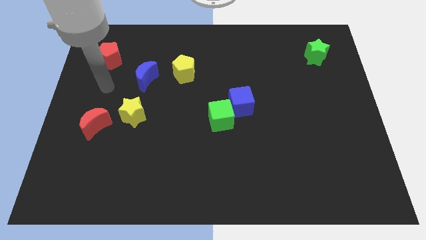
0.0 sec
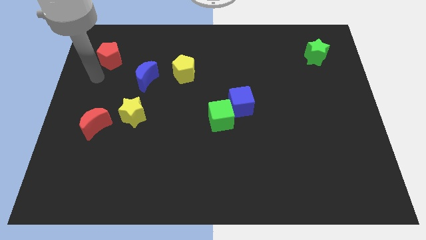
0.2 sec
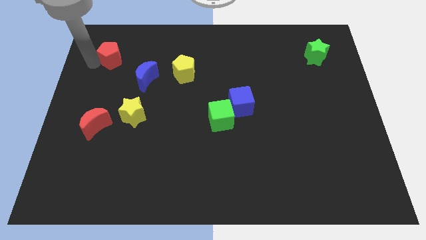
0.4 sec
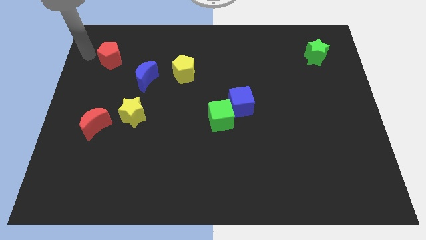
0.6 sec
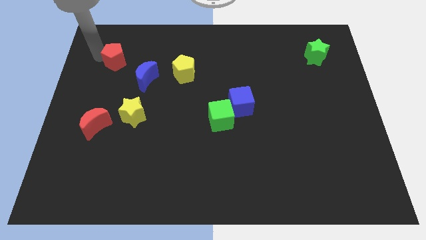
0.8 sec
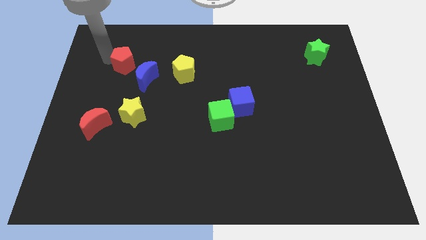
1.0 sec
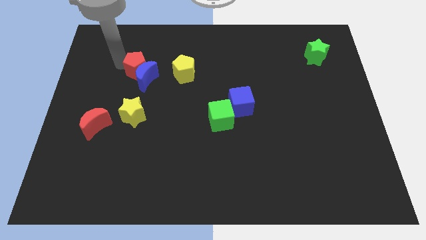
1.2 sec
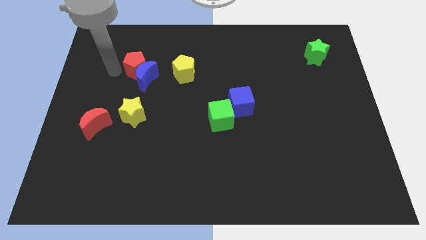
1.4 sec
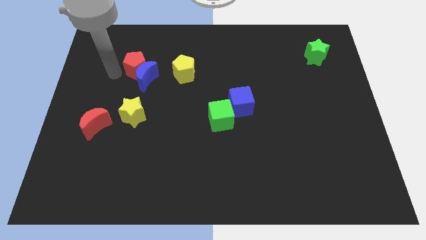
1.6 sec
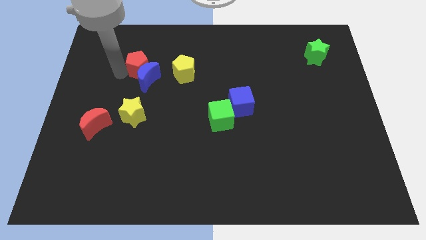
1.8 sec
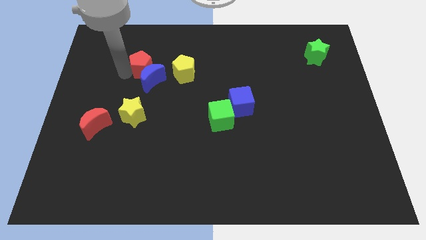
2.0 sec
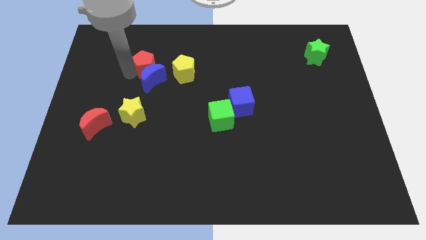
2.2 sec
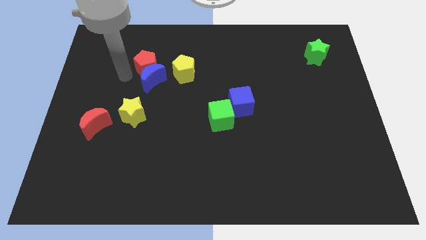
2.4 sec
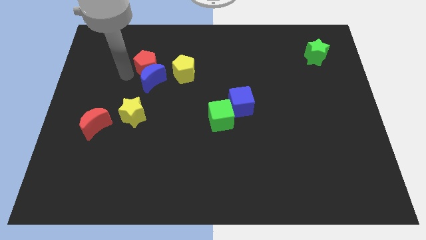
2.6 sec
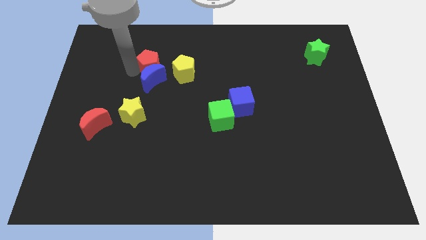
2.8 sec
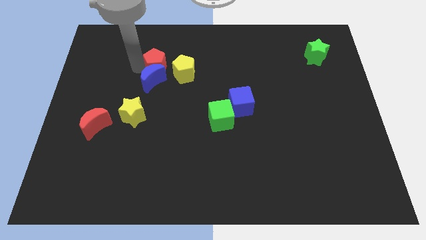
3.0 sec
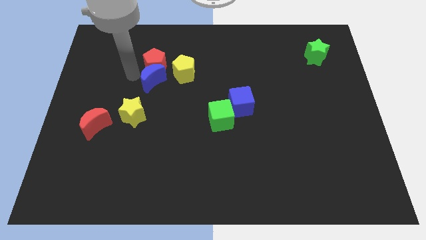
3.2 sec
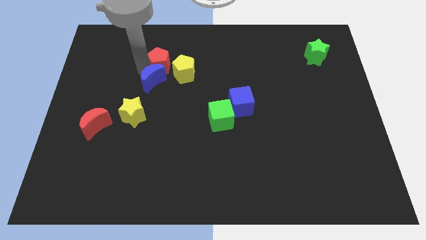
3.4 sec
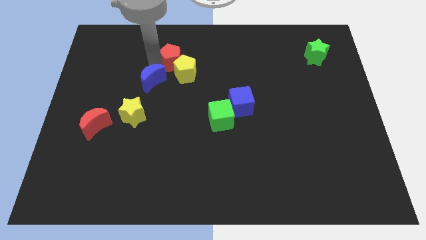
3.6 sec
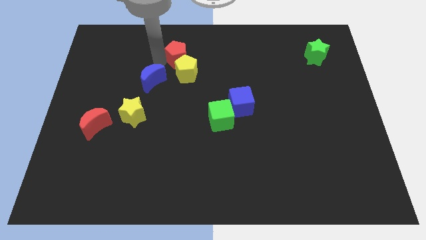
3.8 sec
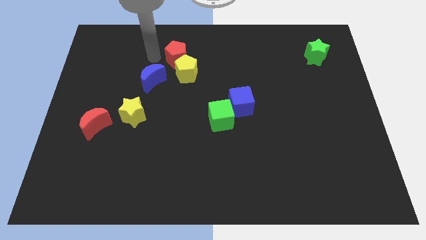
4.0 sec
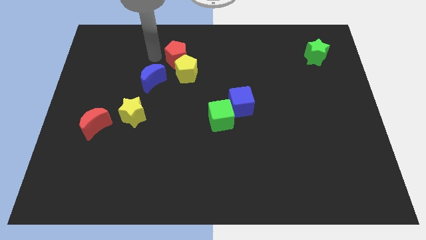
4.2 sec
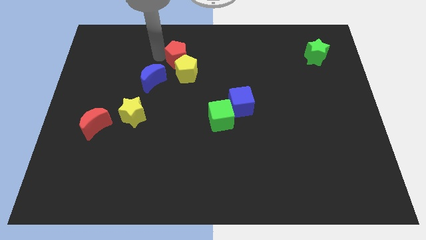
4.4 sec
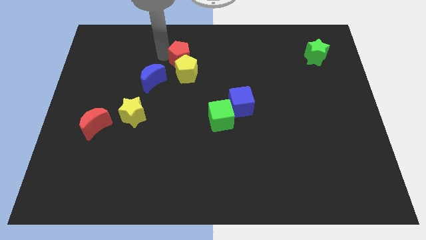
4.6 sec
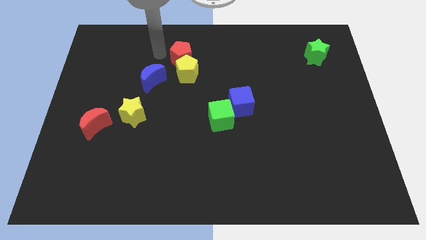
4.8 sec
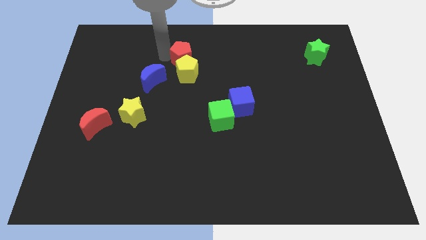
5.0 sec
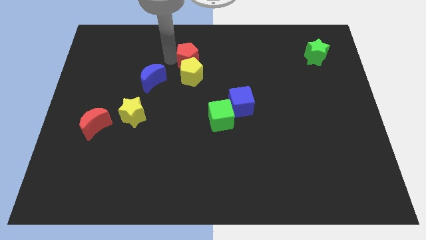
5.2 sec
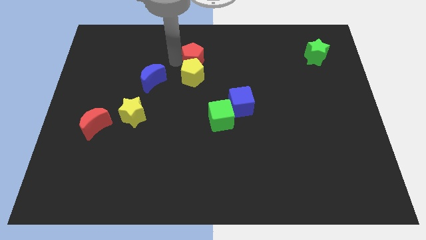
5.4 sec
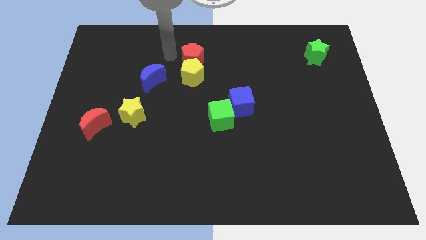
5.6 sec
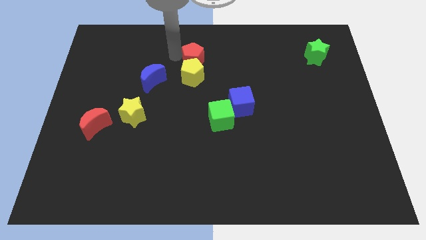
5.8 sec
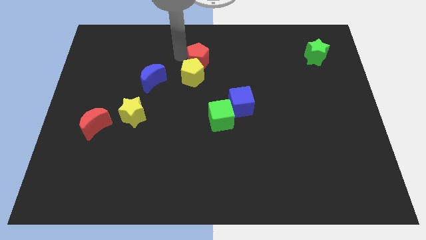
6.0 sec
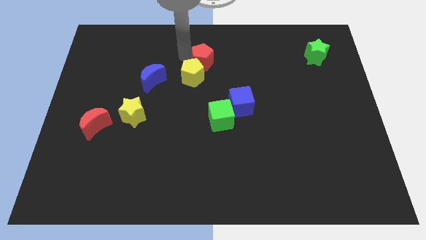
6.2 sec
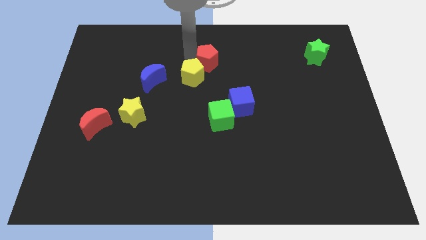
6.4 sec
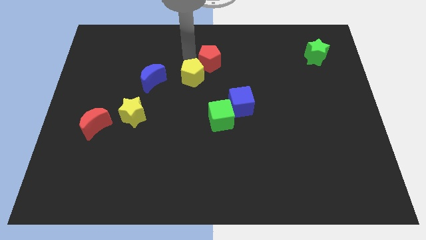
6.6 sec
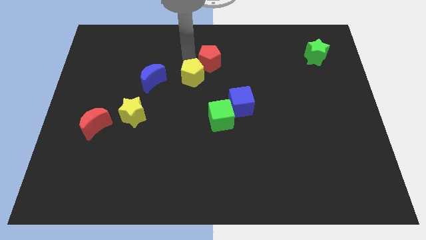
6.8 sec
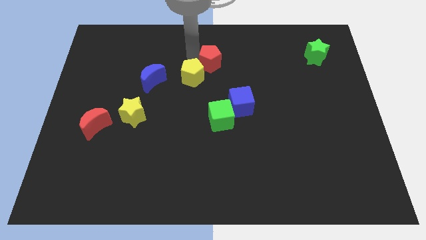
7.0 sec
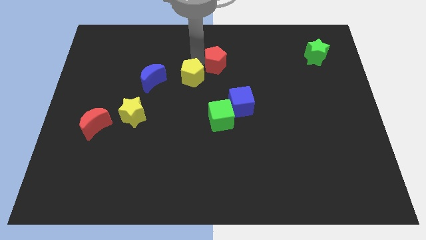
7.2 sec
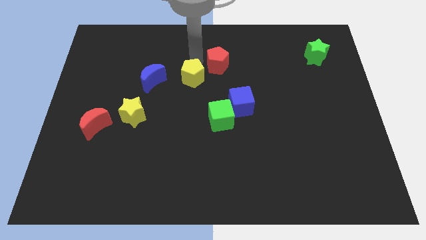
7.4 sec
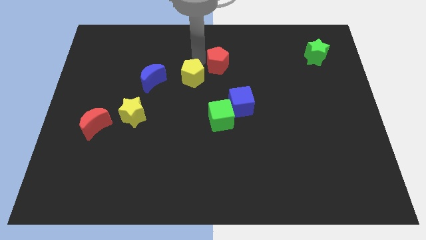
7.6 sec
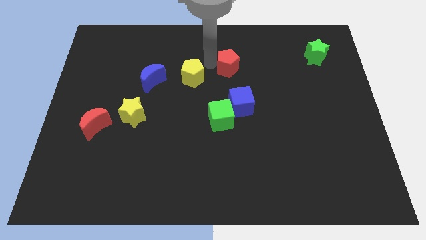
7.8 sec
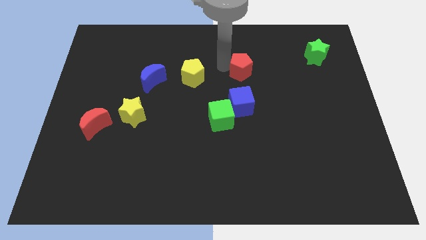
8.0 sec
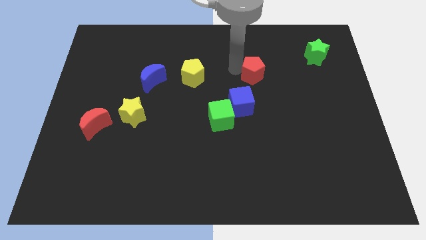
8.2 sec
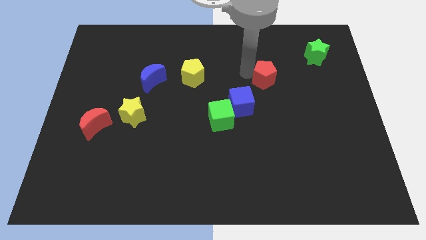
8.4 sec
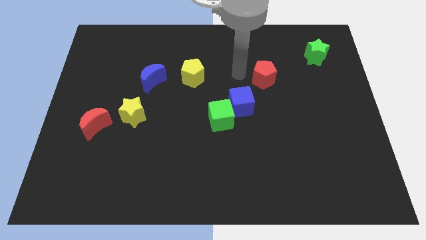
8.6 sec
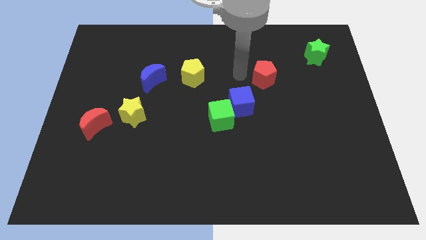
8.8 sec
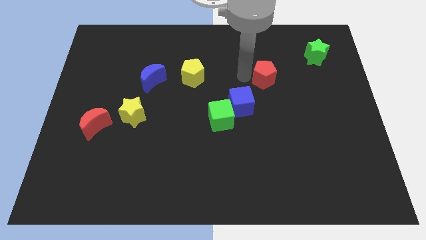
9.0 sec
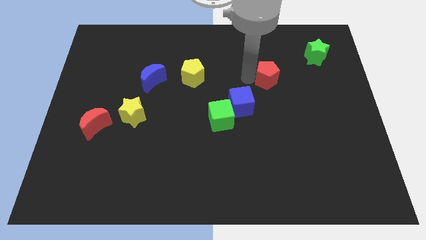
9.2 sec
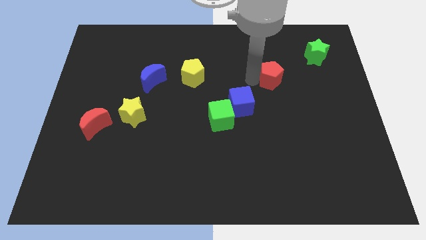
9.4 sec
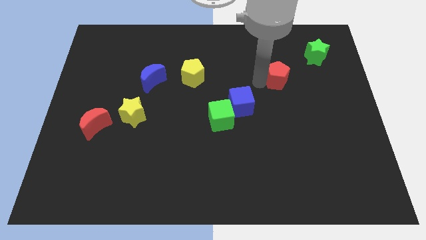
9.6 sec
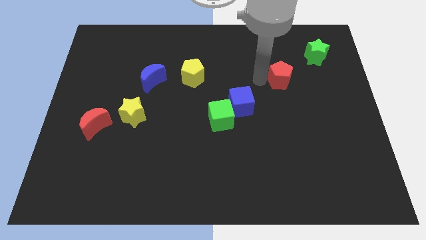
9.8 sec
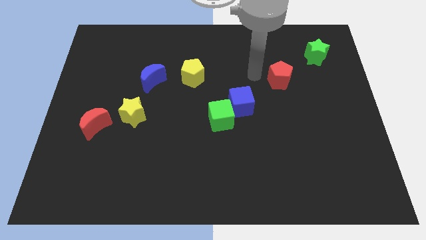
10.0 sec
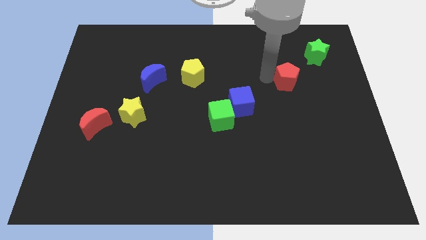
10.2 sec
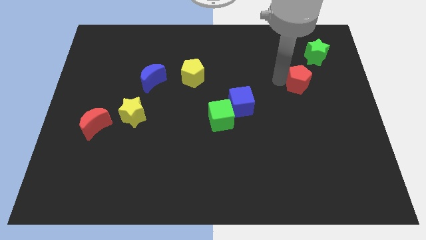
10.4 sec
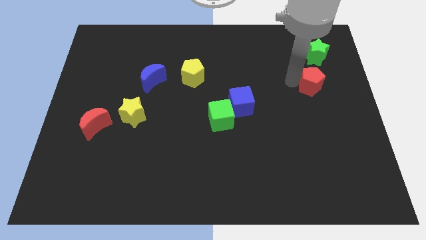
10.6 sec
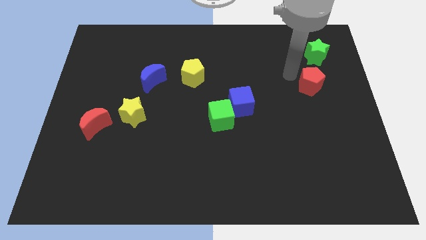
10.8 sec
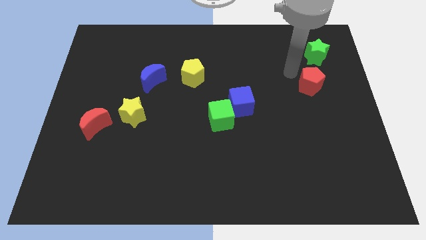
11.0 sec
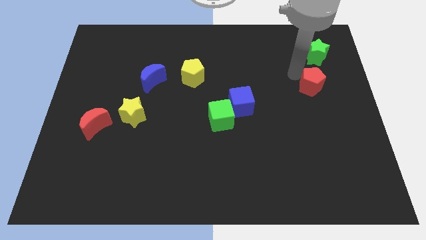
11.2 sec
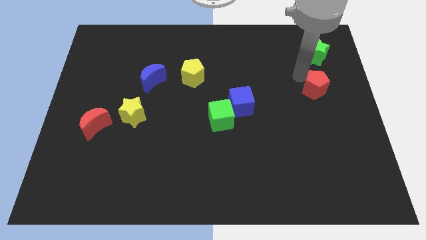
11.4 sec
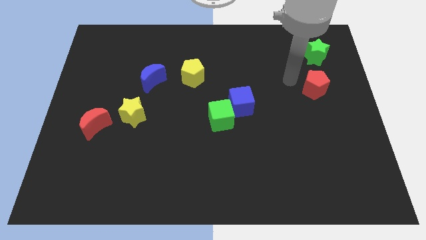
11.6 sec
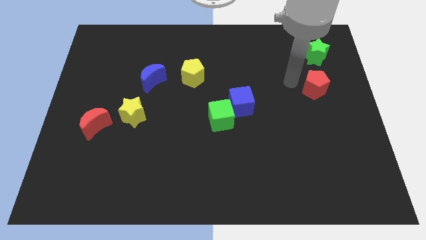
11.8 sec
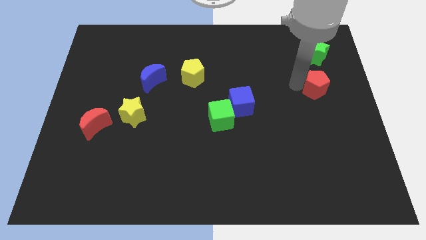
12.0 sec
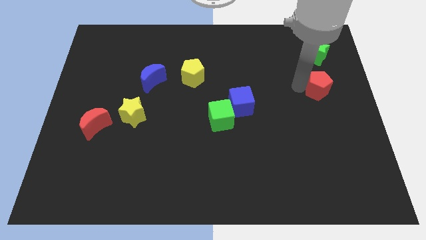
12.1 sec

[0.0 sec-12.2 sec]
slide the red pentagon to the right side of the board

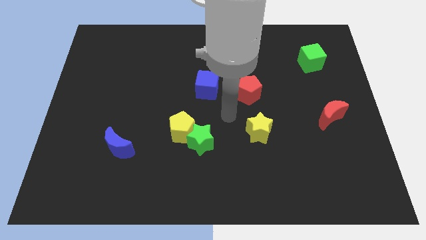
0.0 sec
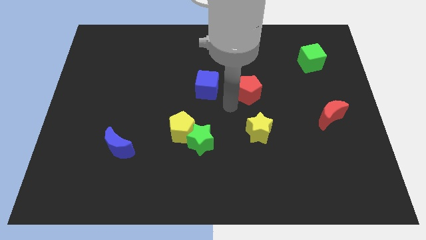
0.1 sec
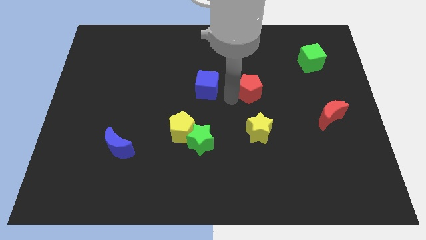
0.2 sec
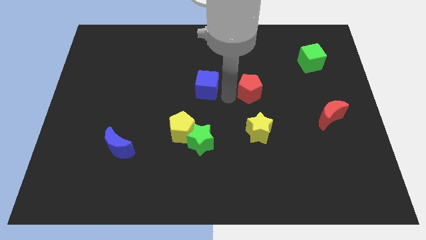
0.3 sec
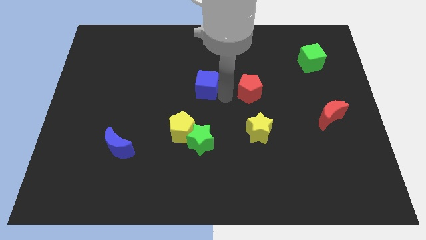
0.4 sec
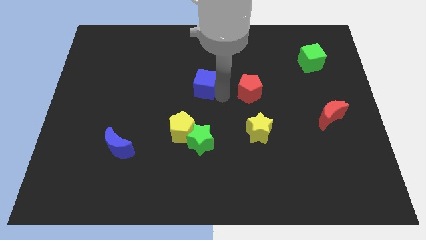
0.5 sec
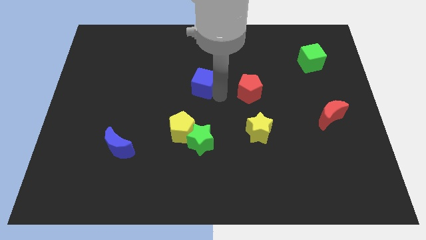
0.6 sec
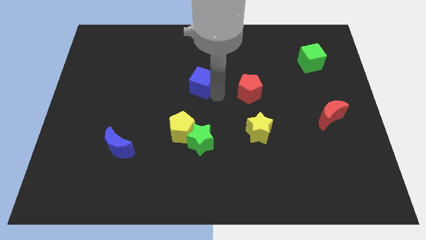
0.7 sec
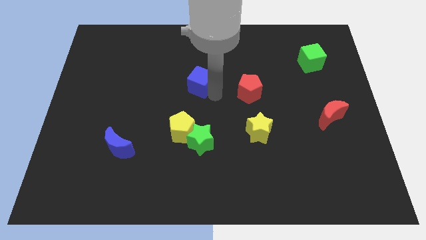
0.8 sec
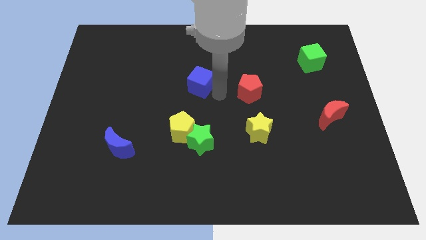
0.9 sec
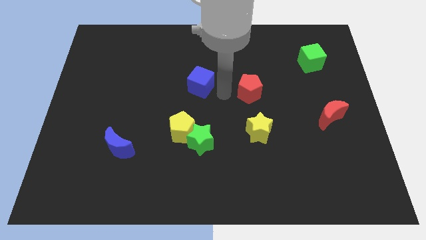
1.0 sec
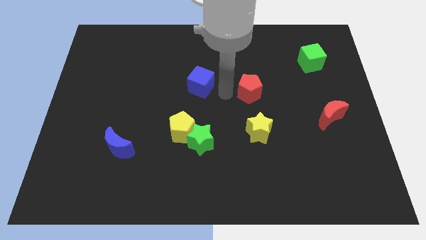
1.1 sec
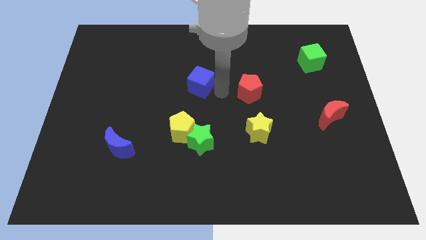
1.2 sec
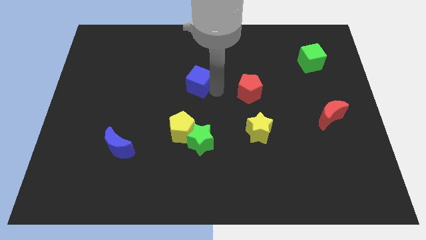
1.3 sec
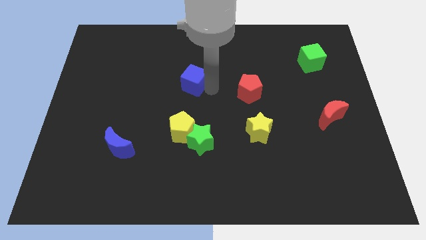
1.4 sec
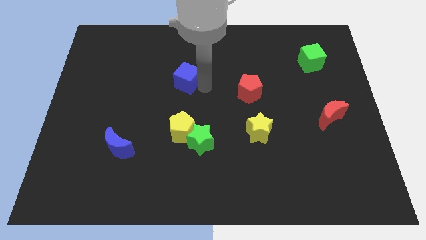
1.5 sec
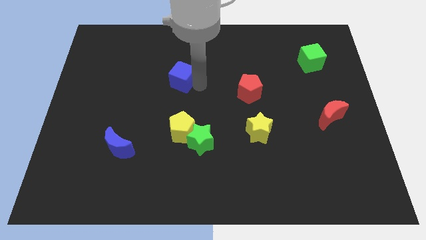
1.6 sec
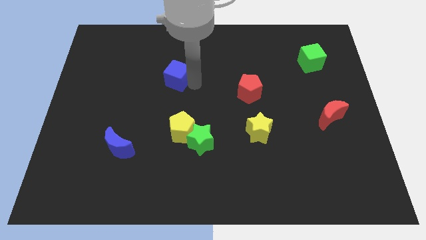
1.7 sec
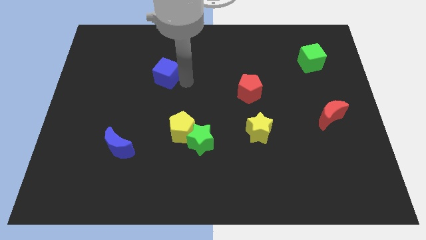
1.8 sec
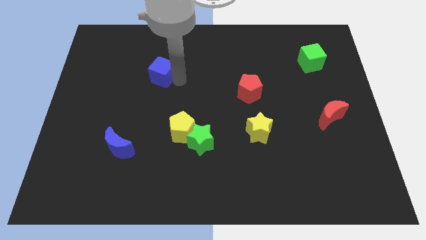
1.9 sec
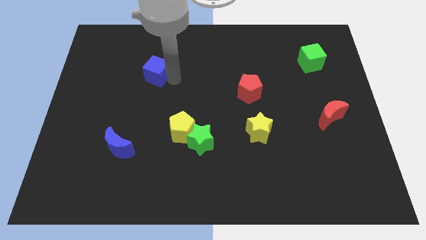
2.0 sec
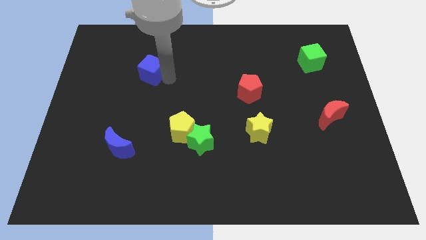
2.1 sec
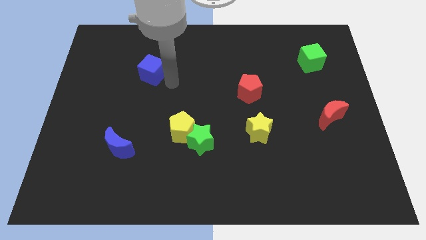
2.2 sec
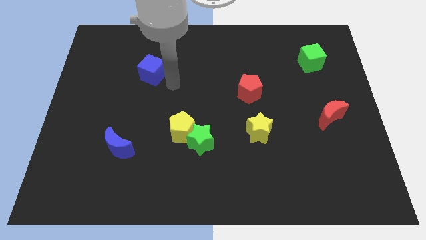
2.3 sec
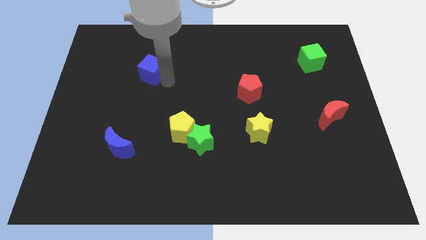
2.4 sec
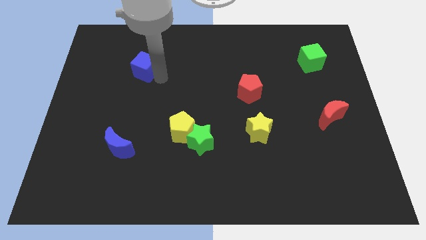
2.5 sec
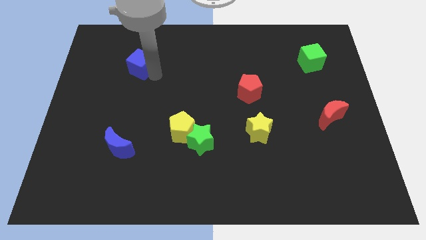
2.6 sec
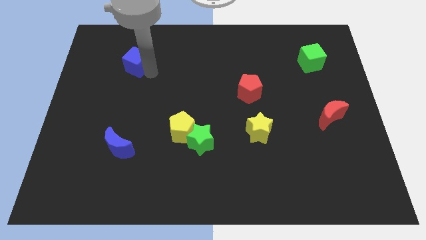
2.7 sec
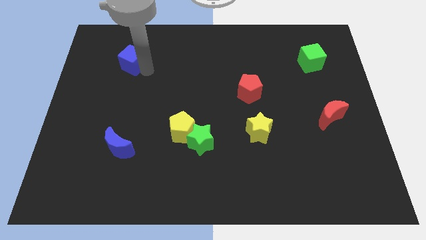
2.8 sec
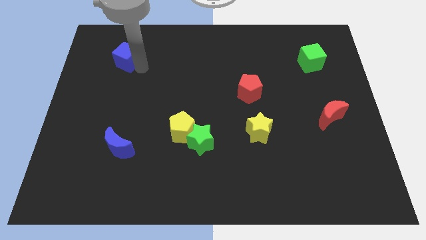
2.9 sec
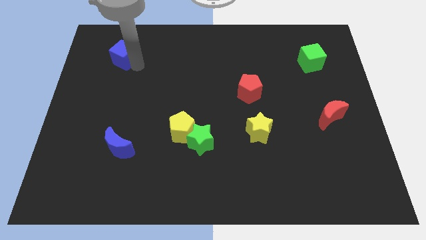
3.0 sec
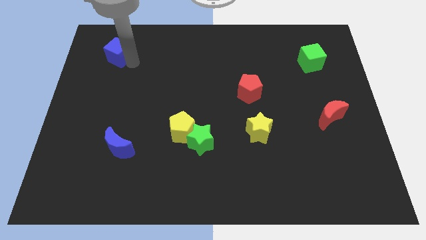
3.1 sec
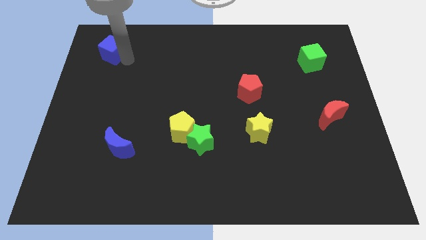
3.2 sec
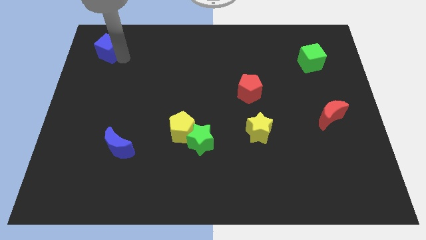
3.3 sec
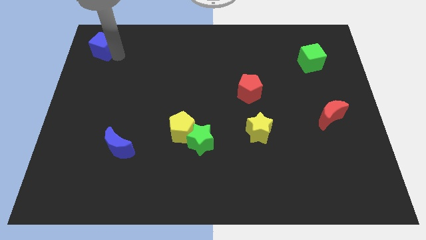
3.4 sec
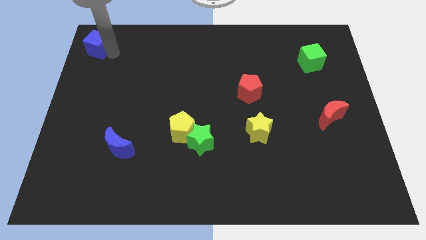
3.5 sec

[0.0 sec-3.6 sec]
put the blue cube to the top left corner
